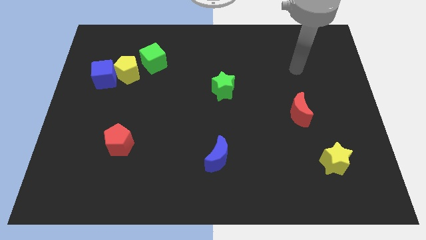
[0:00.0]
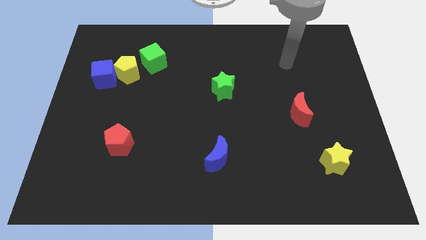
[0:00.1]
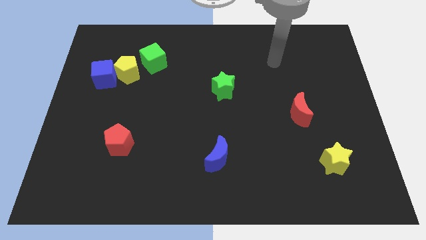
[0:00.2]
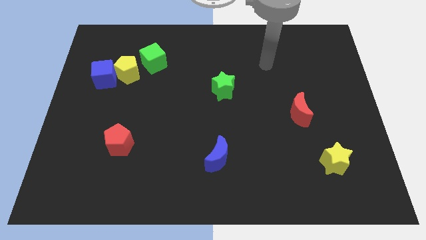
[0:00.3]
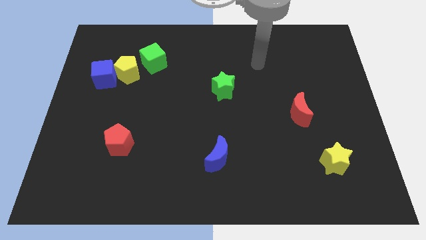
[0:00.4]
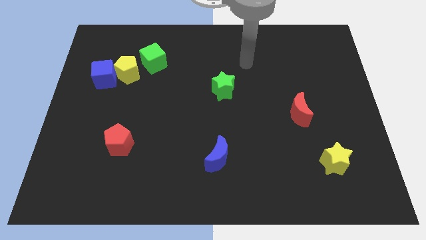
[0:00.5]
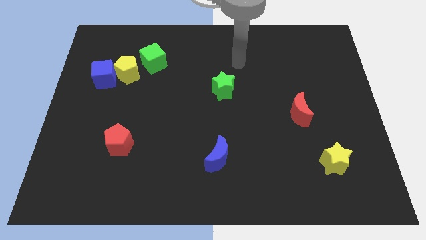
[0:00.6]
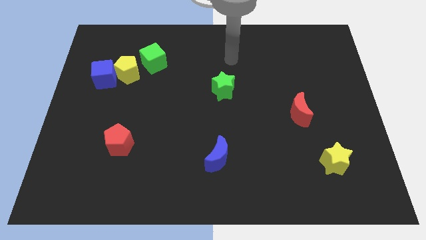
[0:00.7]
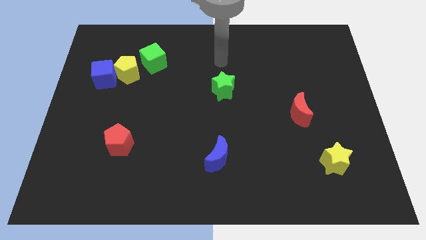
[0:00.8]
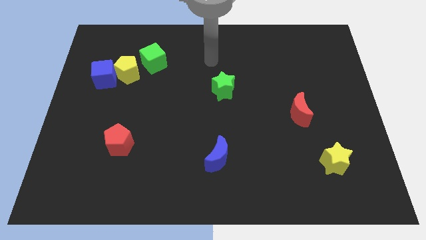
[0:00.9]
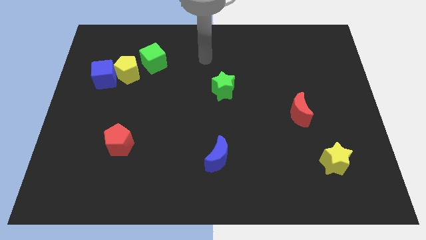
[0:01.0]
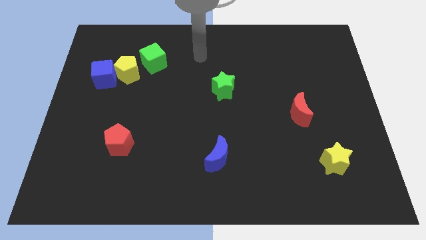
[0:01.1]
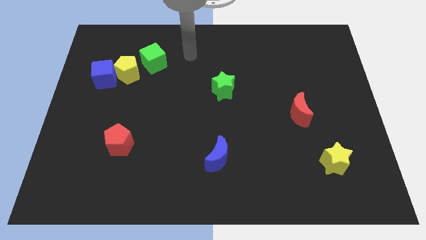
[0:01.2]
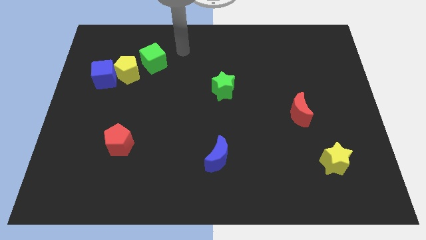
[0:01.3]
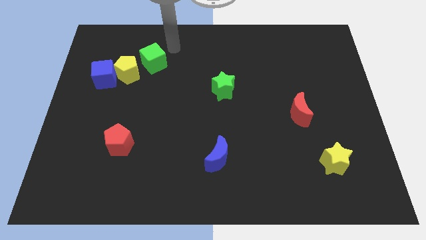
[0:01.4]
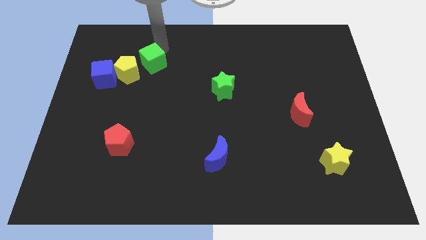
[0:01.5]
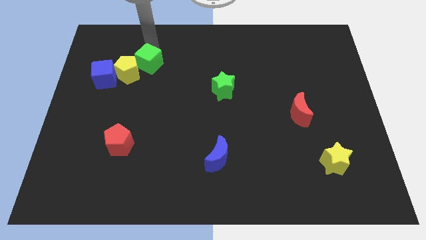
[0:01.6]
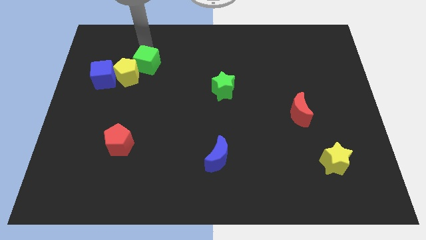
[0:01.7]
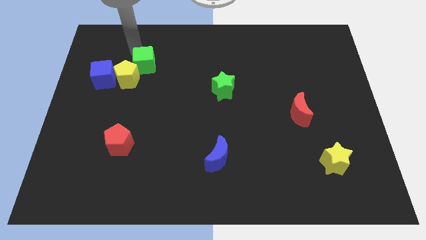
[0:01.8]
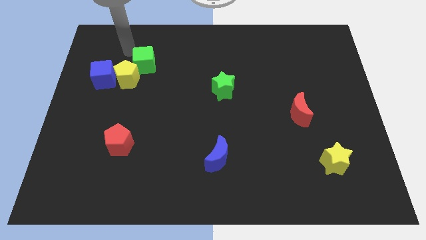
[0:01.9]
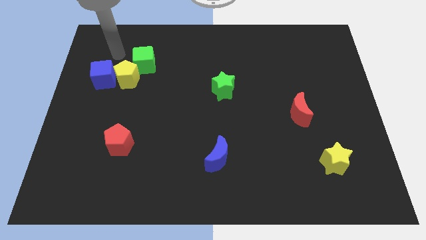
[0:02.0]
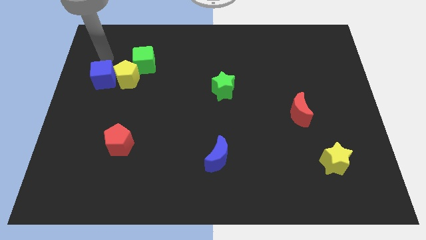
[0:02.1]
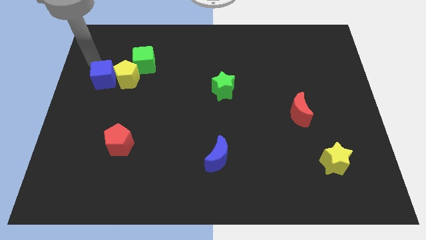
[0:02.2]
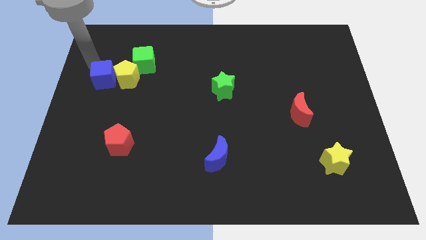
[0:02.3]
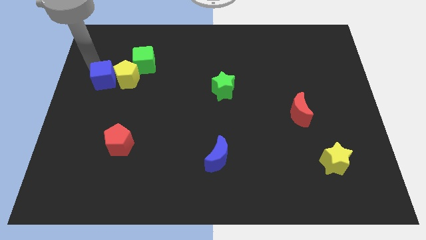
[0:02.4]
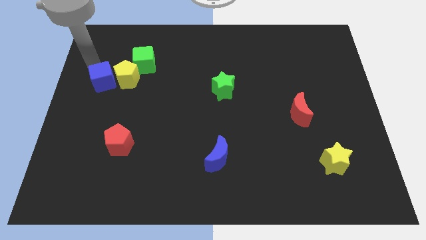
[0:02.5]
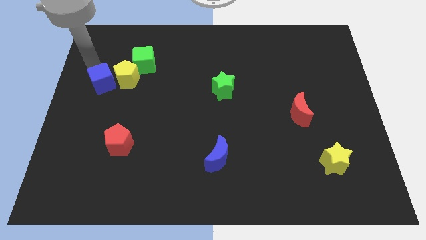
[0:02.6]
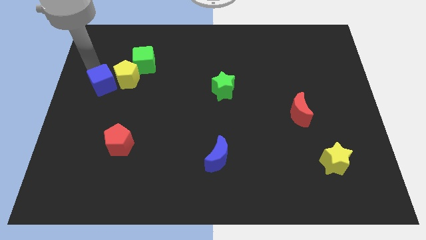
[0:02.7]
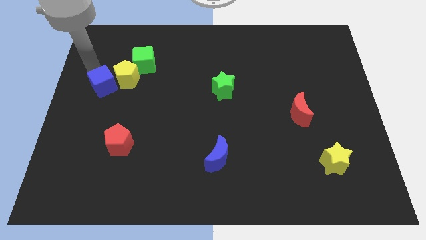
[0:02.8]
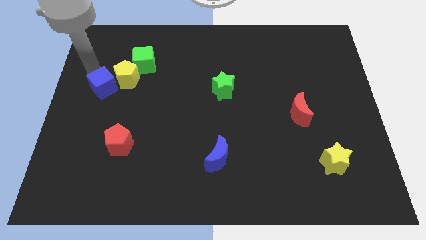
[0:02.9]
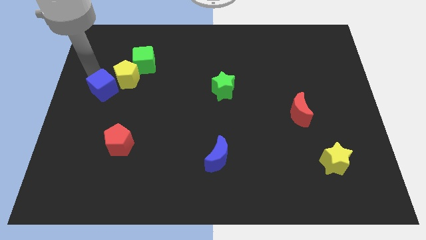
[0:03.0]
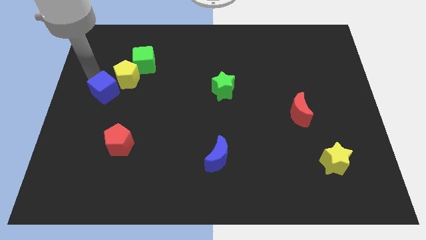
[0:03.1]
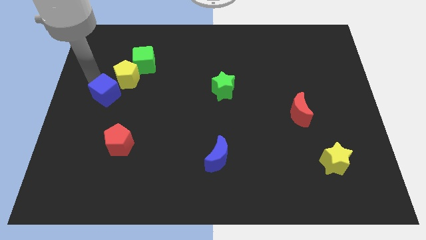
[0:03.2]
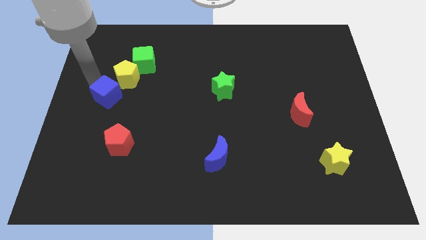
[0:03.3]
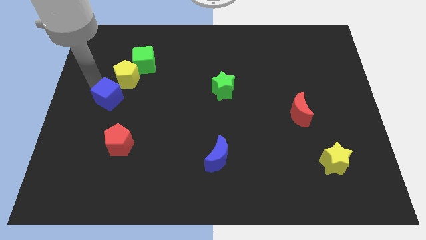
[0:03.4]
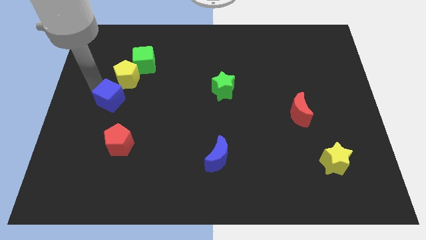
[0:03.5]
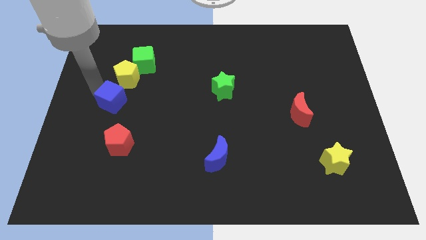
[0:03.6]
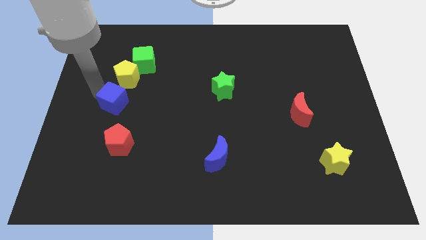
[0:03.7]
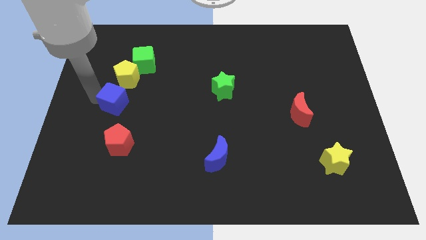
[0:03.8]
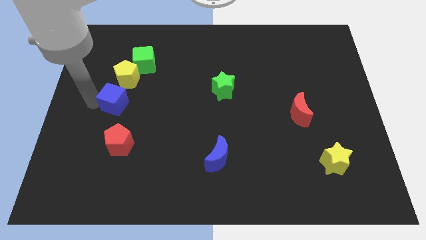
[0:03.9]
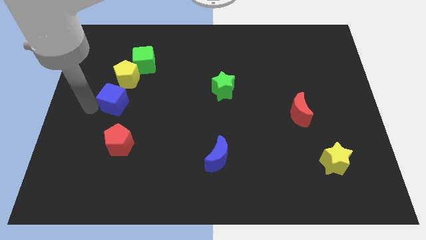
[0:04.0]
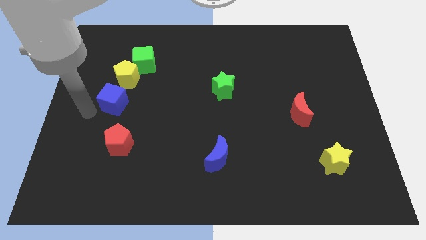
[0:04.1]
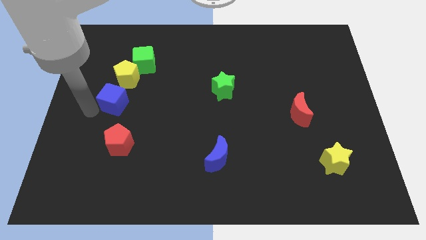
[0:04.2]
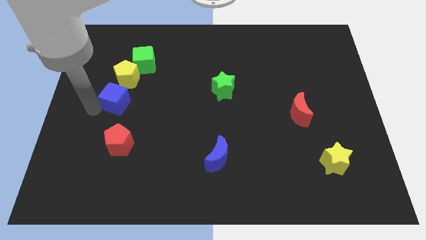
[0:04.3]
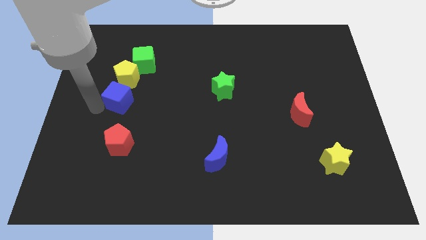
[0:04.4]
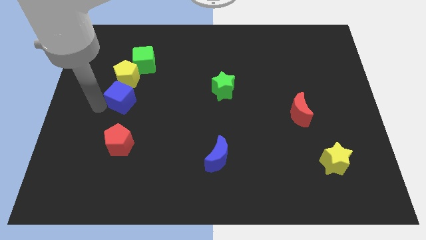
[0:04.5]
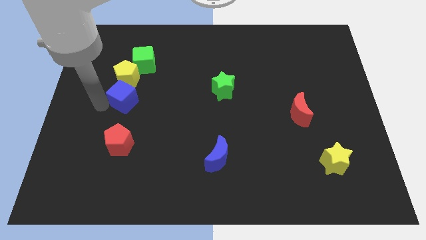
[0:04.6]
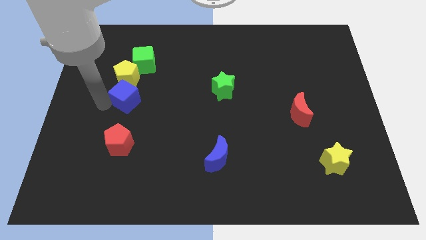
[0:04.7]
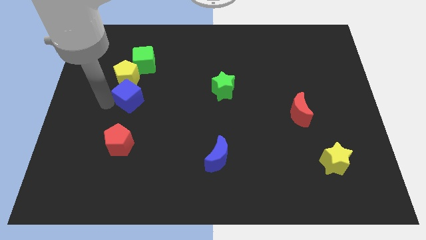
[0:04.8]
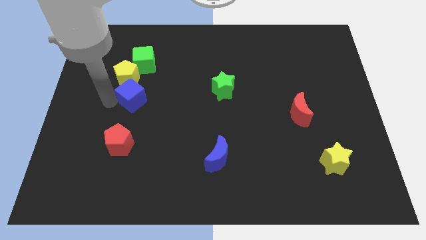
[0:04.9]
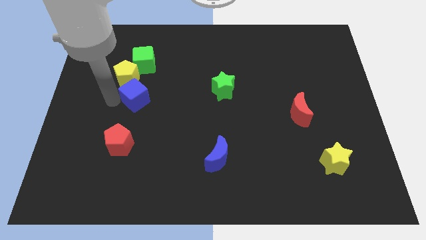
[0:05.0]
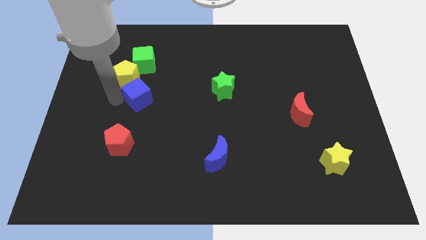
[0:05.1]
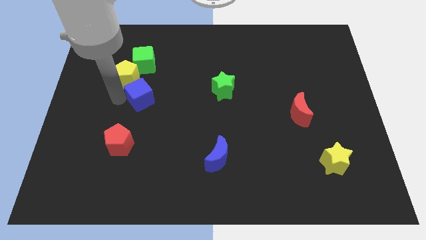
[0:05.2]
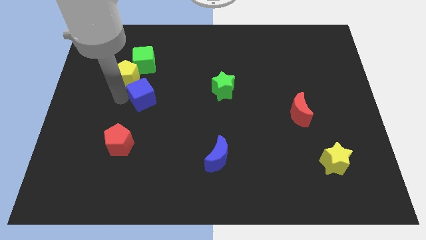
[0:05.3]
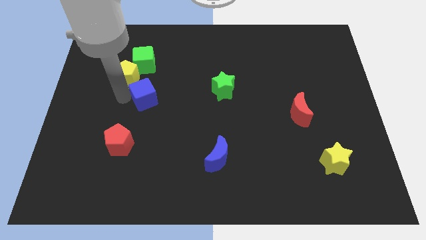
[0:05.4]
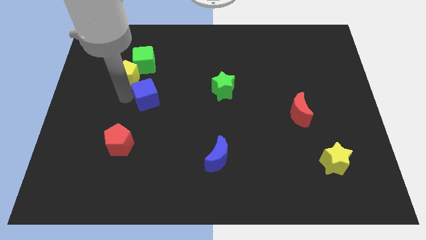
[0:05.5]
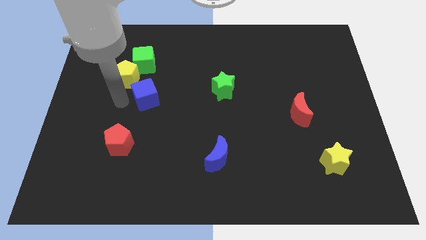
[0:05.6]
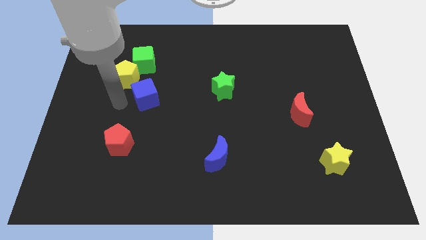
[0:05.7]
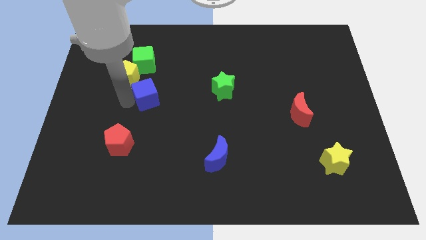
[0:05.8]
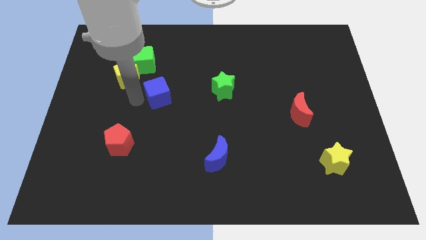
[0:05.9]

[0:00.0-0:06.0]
put the blue cube left of the green star

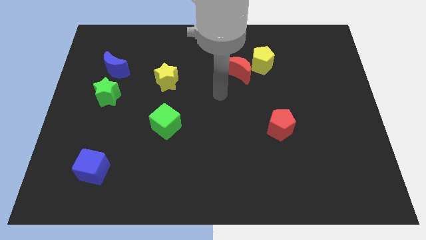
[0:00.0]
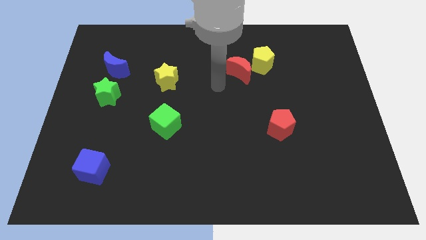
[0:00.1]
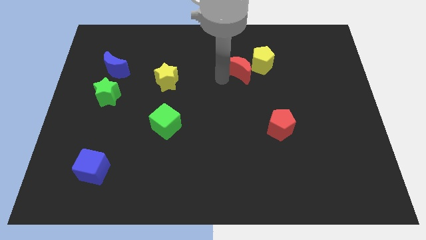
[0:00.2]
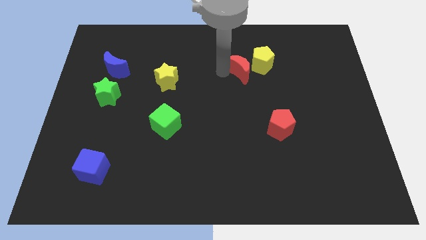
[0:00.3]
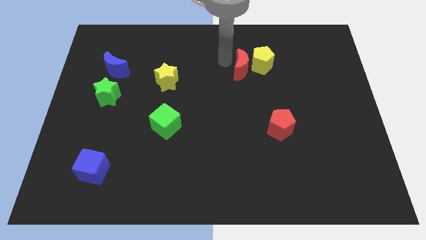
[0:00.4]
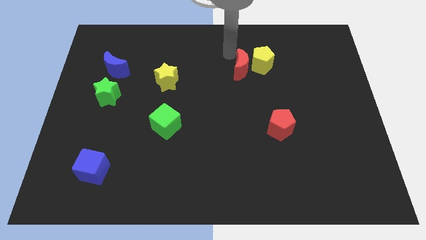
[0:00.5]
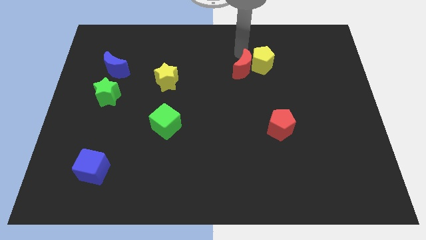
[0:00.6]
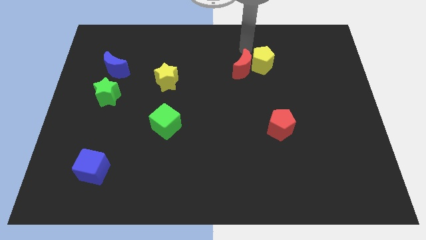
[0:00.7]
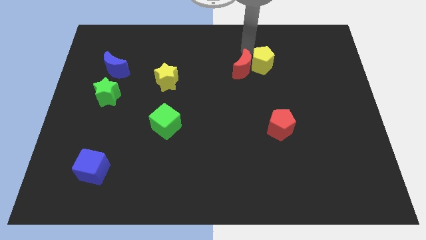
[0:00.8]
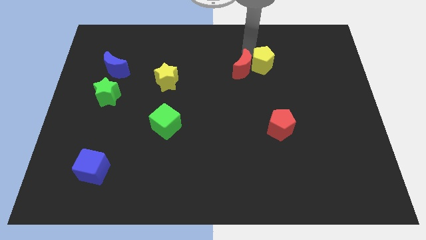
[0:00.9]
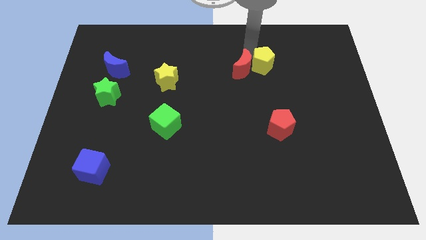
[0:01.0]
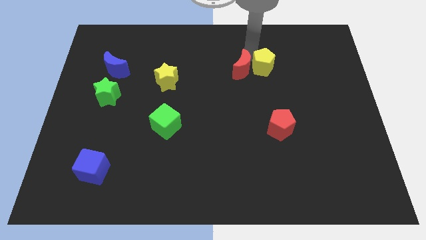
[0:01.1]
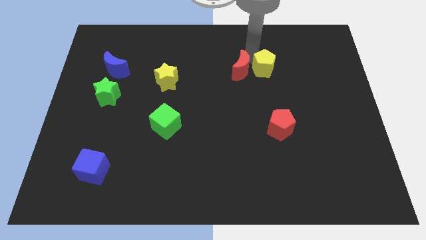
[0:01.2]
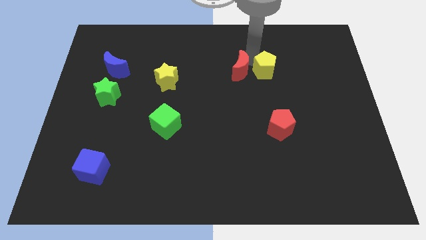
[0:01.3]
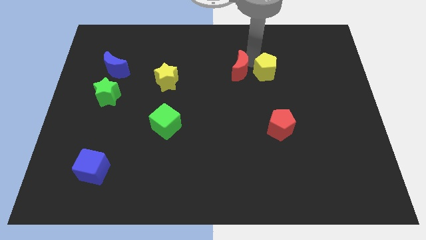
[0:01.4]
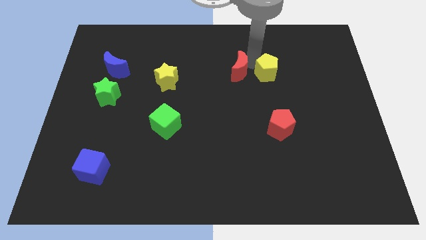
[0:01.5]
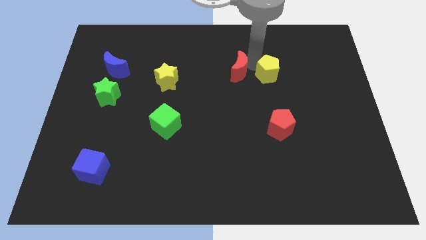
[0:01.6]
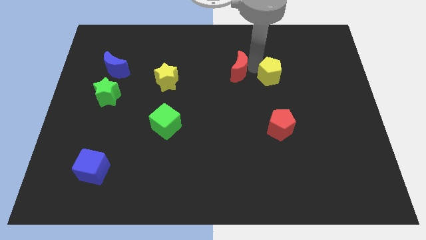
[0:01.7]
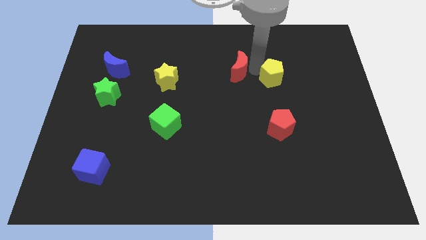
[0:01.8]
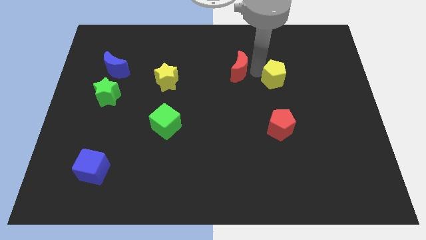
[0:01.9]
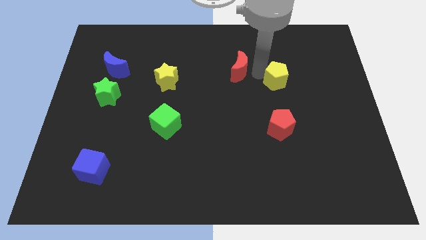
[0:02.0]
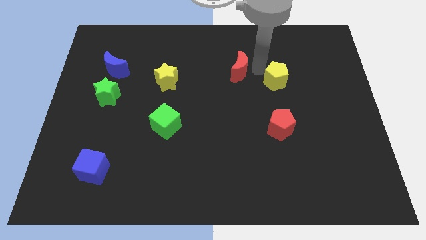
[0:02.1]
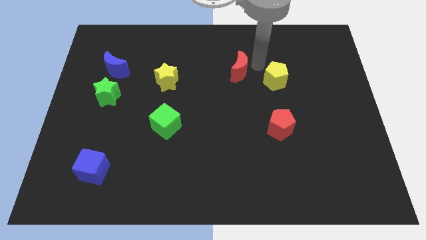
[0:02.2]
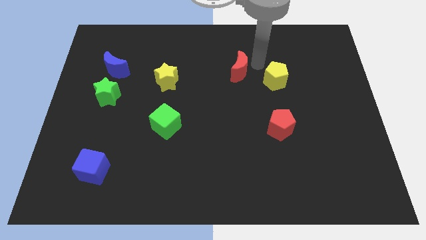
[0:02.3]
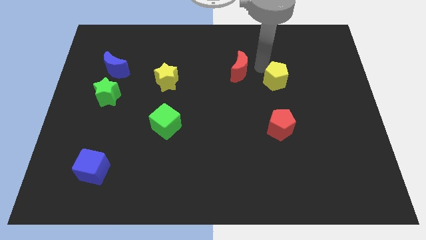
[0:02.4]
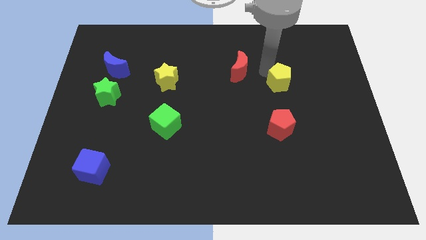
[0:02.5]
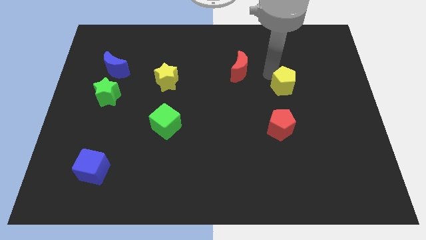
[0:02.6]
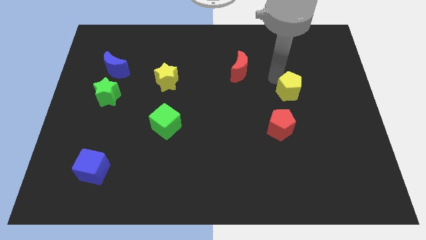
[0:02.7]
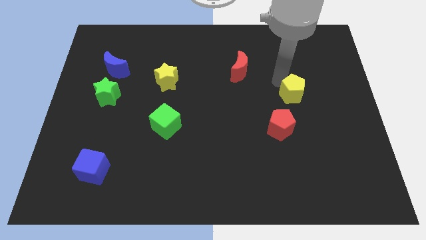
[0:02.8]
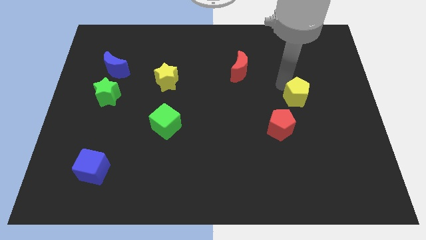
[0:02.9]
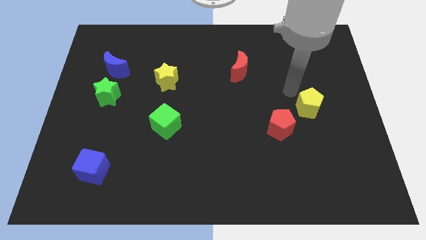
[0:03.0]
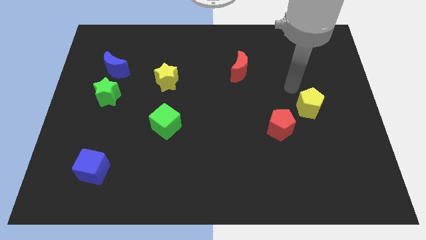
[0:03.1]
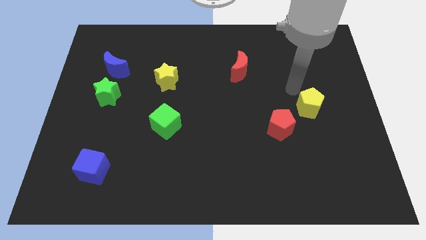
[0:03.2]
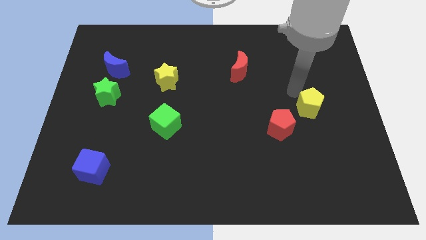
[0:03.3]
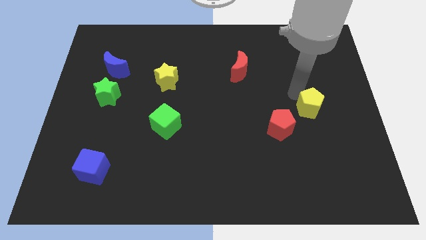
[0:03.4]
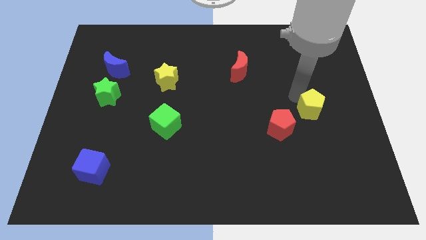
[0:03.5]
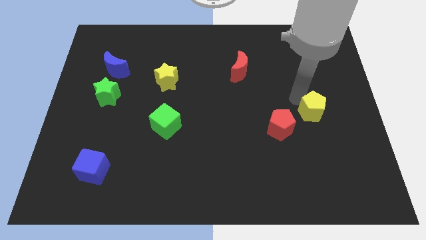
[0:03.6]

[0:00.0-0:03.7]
push the yellow pentagon to the right of the red pentagon
